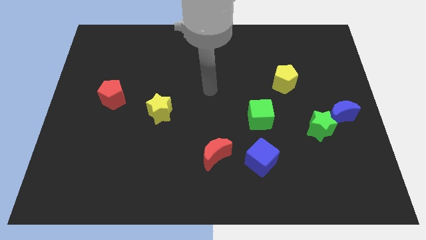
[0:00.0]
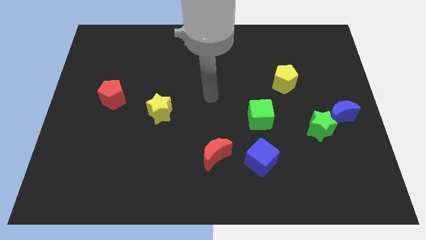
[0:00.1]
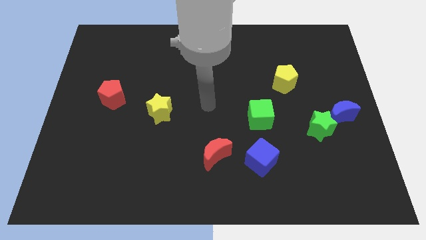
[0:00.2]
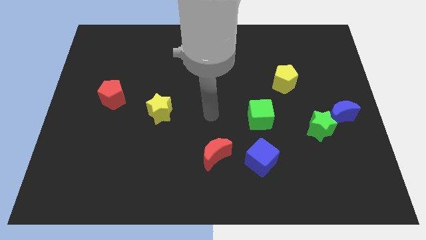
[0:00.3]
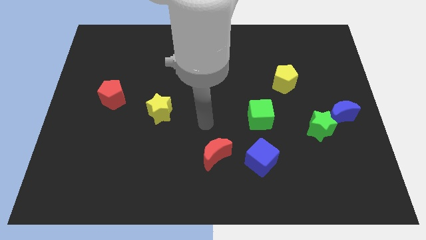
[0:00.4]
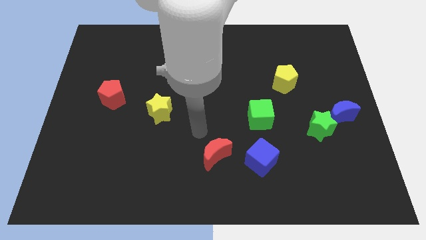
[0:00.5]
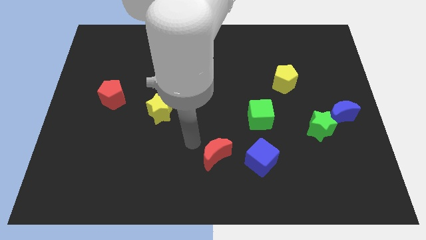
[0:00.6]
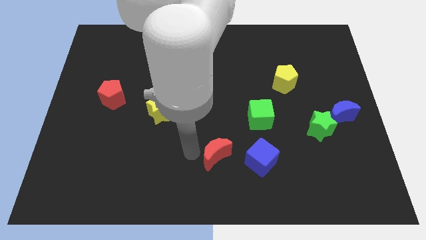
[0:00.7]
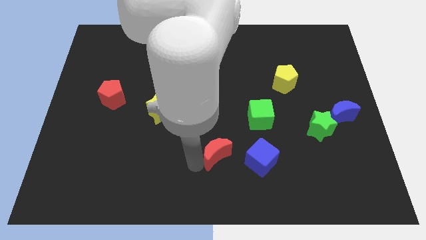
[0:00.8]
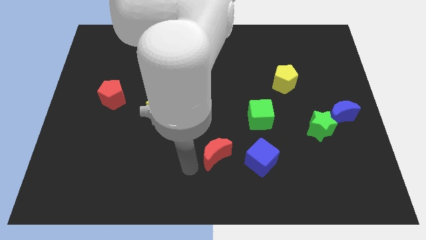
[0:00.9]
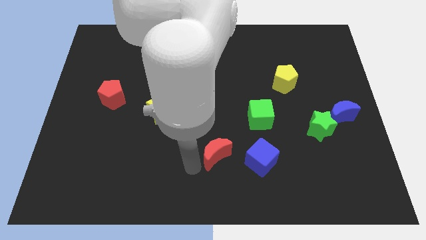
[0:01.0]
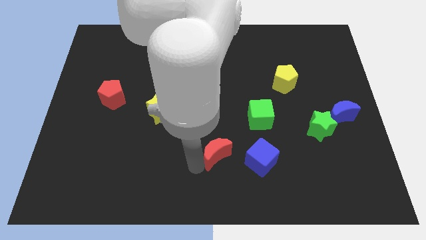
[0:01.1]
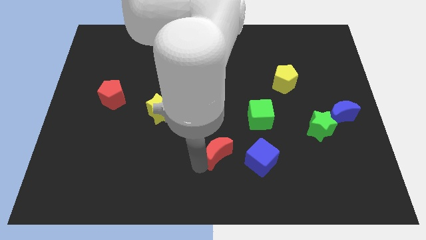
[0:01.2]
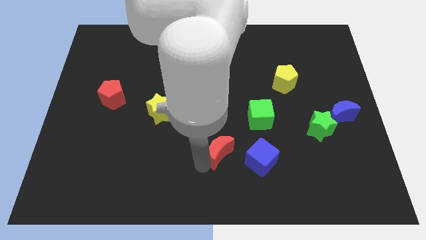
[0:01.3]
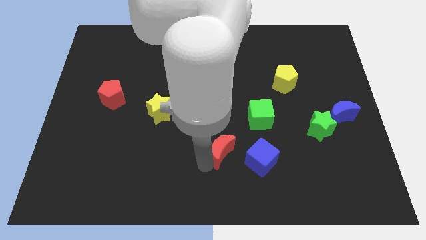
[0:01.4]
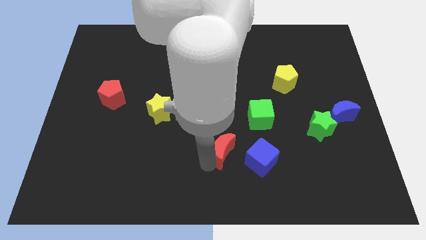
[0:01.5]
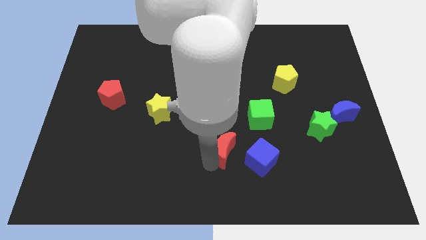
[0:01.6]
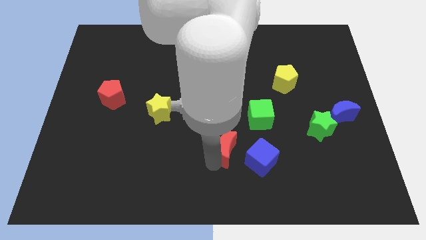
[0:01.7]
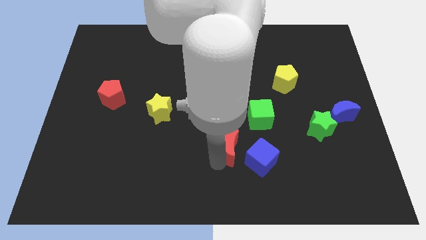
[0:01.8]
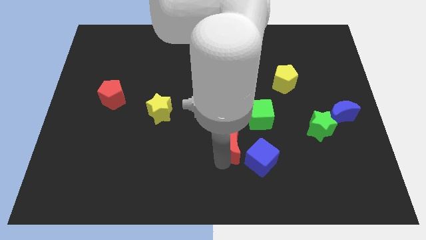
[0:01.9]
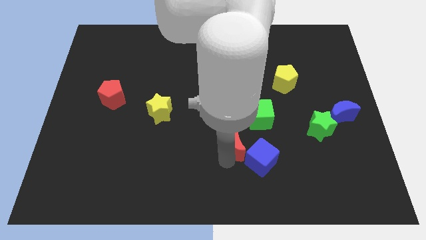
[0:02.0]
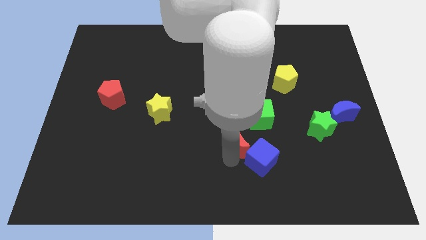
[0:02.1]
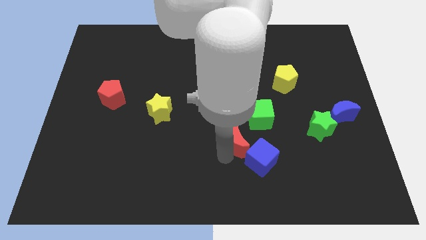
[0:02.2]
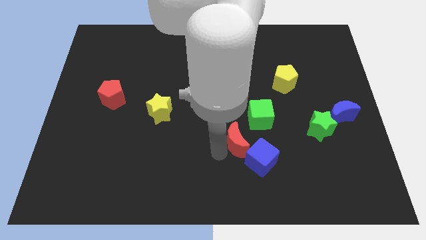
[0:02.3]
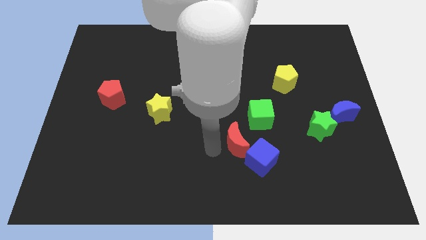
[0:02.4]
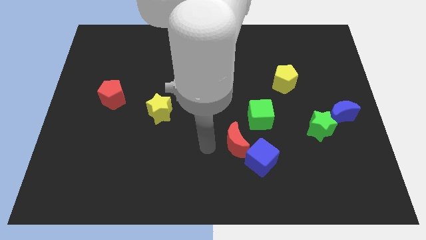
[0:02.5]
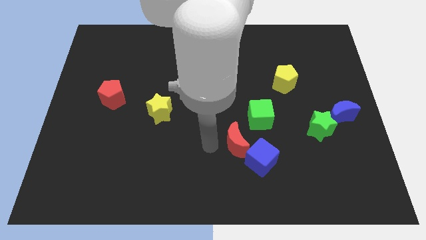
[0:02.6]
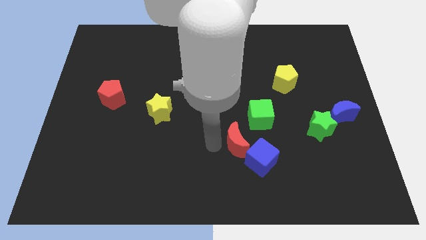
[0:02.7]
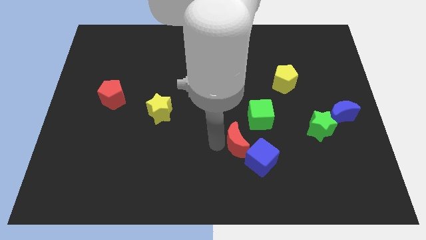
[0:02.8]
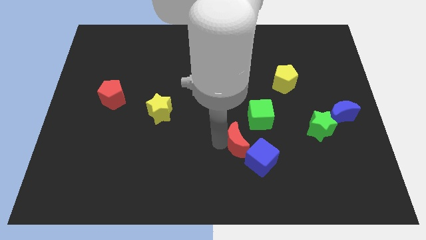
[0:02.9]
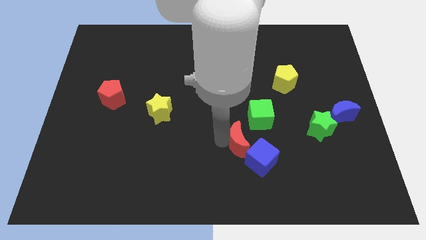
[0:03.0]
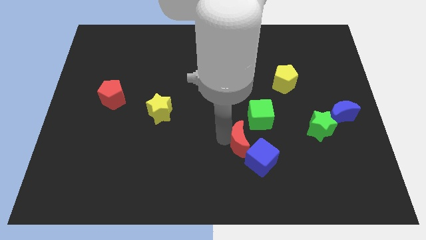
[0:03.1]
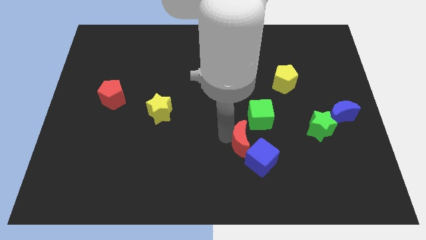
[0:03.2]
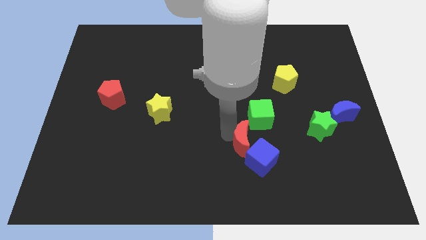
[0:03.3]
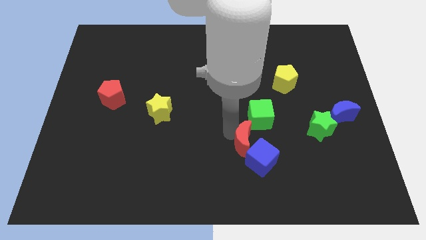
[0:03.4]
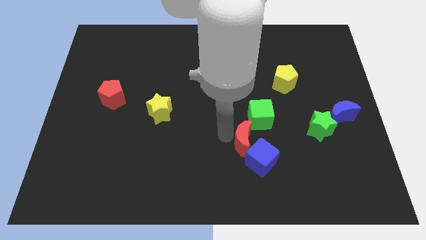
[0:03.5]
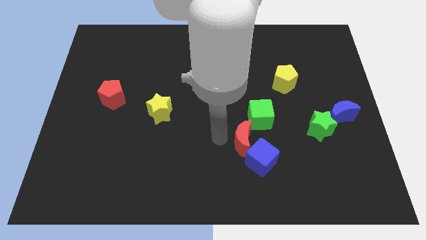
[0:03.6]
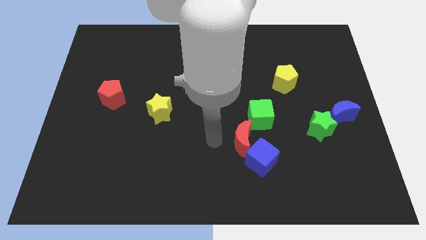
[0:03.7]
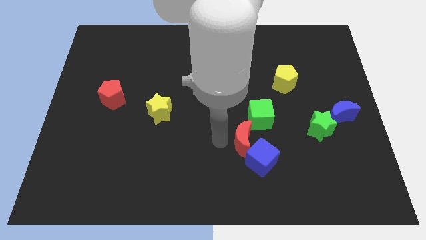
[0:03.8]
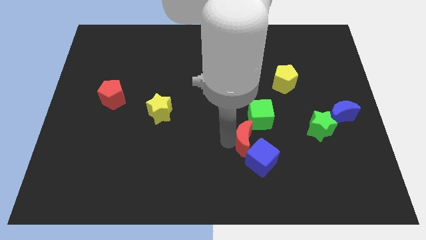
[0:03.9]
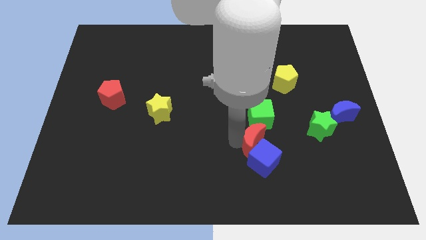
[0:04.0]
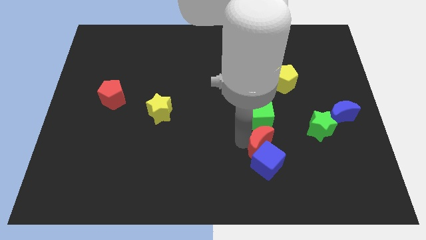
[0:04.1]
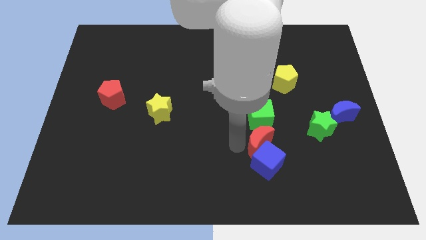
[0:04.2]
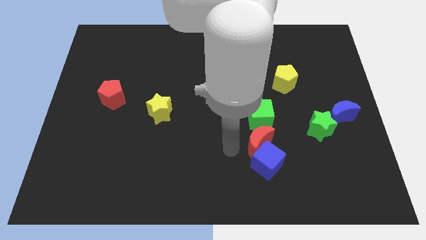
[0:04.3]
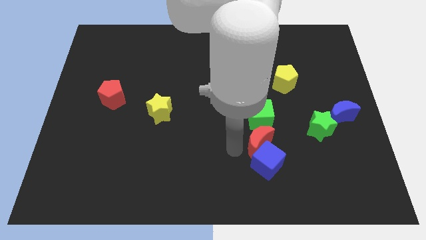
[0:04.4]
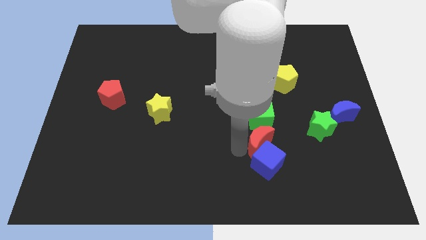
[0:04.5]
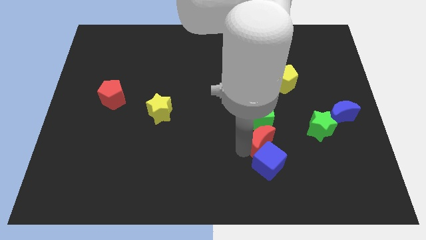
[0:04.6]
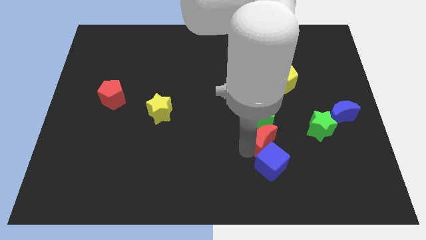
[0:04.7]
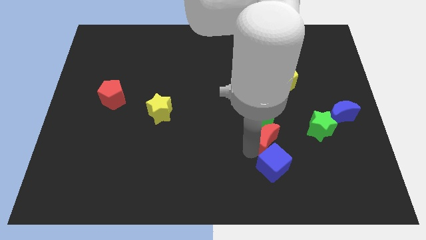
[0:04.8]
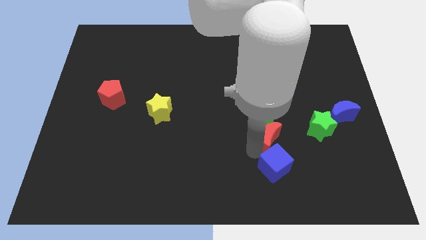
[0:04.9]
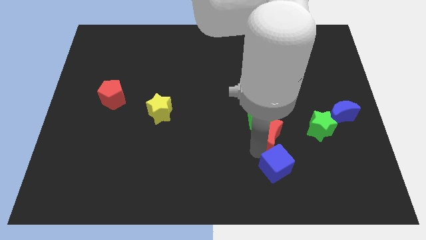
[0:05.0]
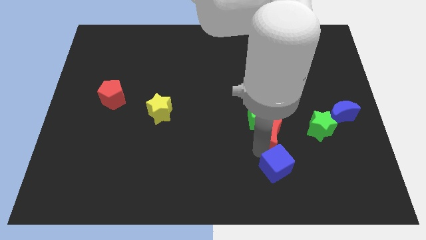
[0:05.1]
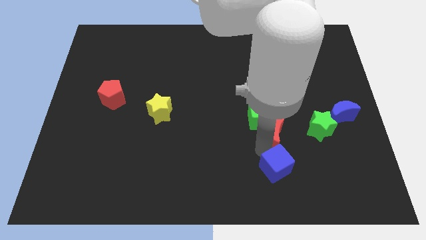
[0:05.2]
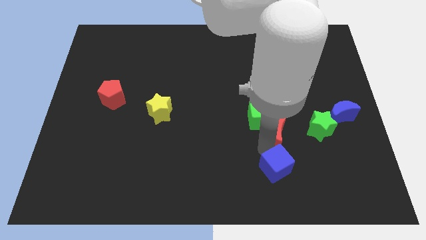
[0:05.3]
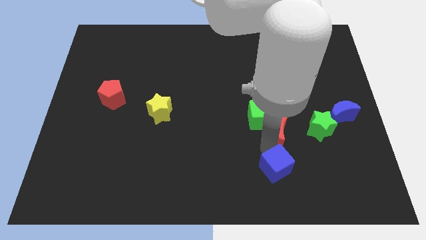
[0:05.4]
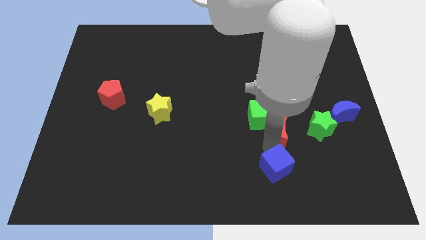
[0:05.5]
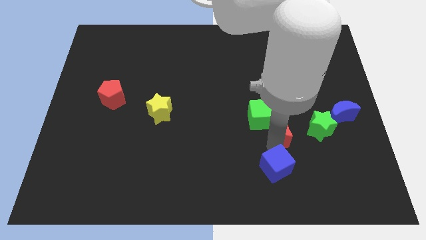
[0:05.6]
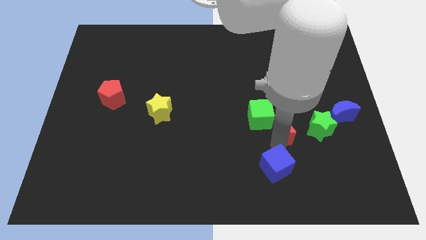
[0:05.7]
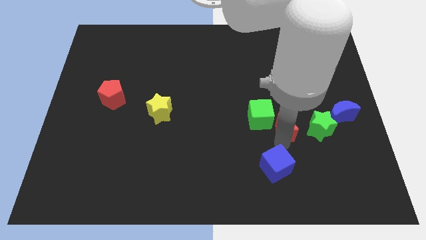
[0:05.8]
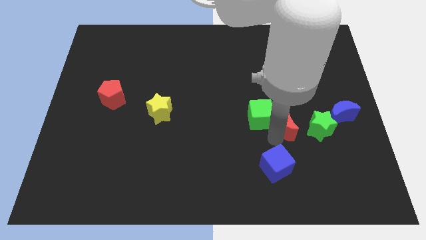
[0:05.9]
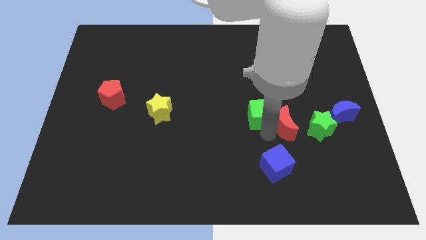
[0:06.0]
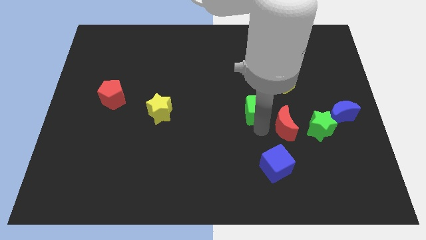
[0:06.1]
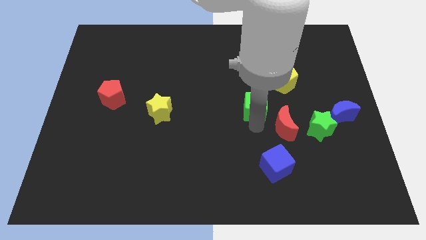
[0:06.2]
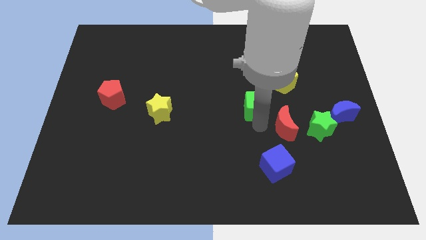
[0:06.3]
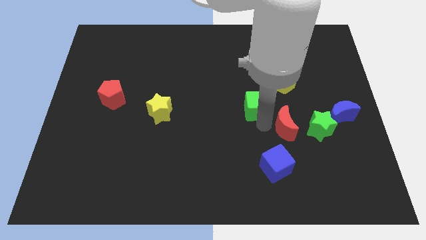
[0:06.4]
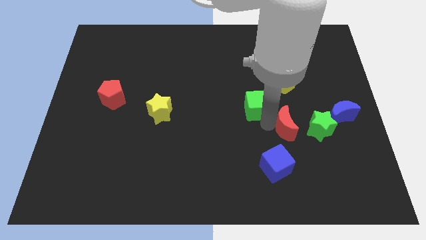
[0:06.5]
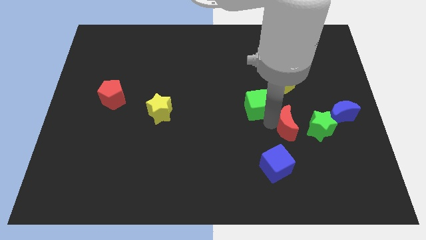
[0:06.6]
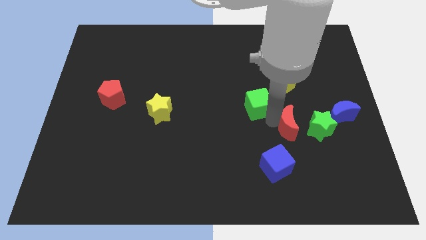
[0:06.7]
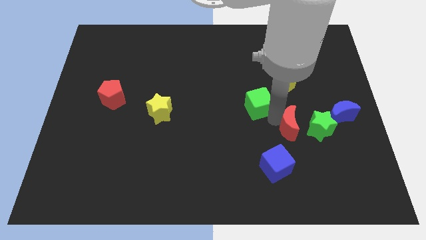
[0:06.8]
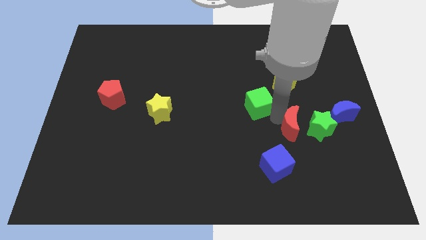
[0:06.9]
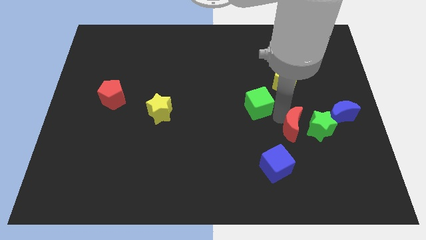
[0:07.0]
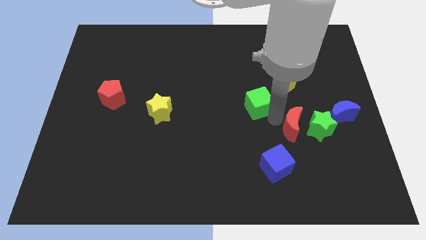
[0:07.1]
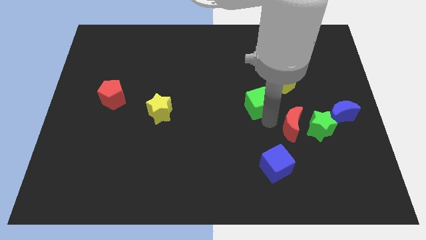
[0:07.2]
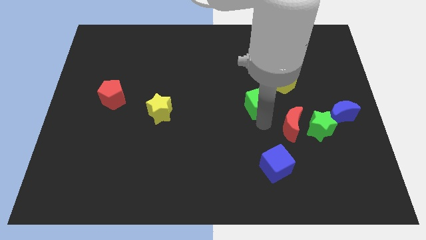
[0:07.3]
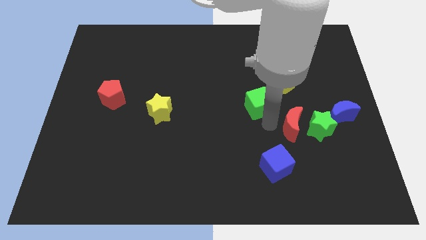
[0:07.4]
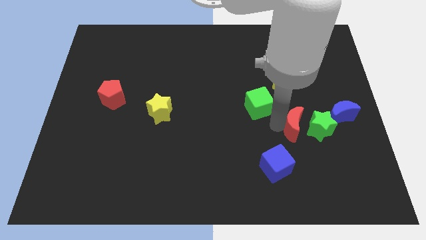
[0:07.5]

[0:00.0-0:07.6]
push the red moon next to the green star
